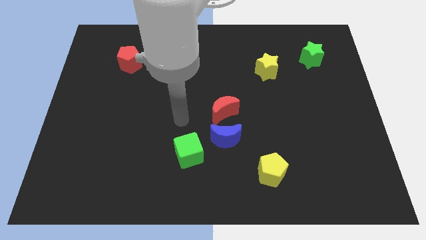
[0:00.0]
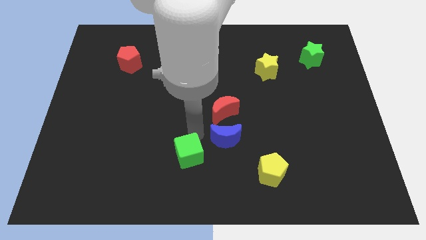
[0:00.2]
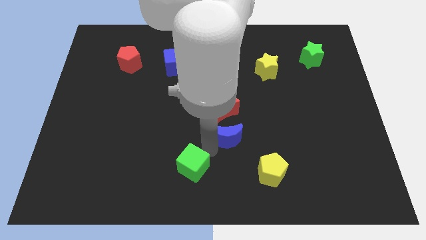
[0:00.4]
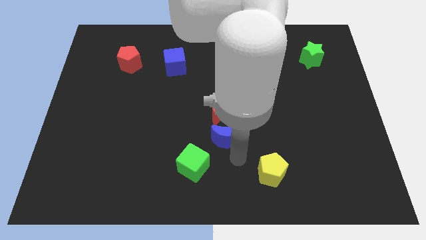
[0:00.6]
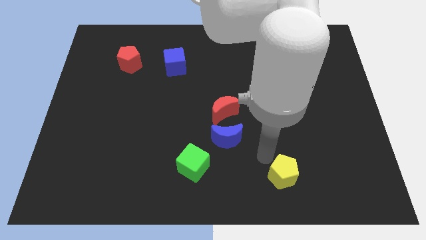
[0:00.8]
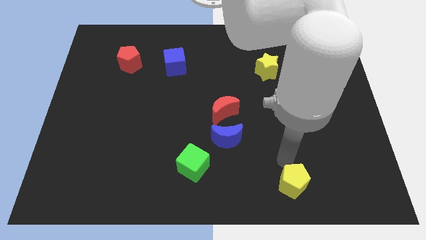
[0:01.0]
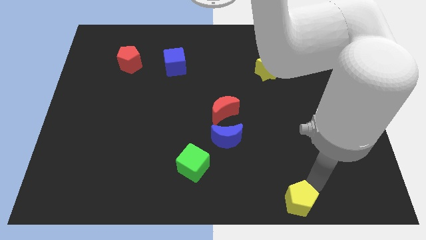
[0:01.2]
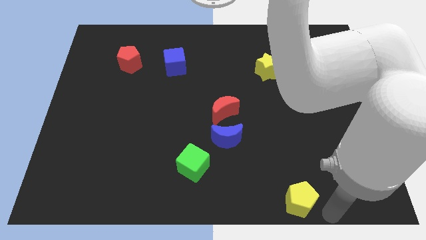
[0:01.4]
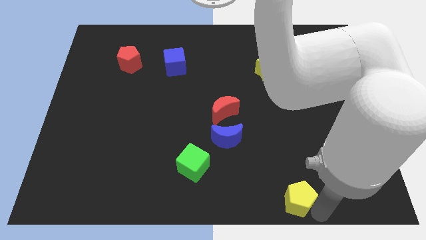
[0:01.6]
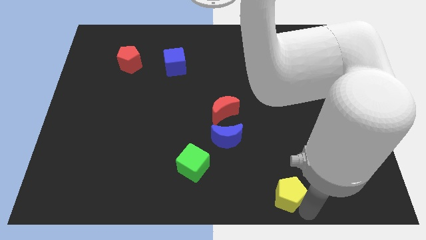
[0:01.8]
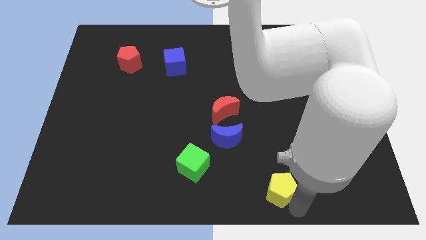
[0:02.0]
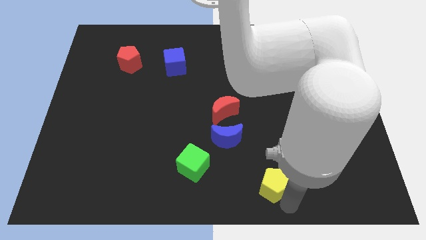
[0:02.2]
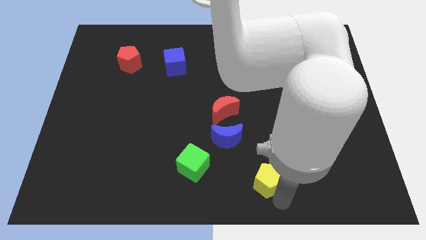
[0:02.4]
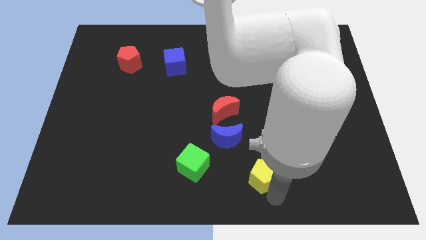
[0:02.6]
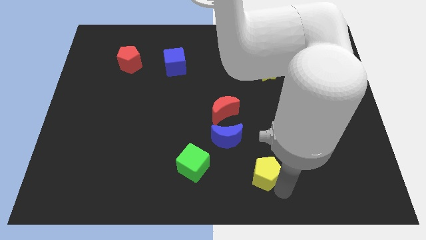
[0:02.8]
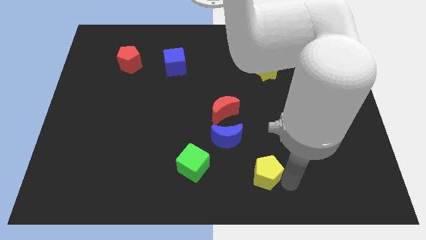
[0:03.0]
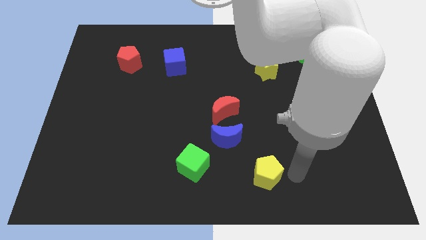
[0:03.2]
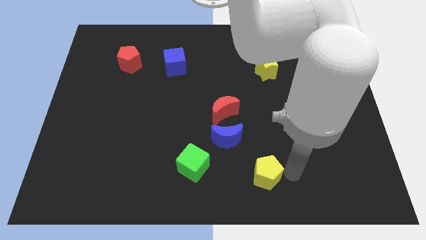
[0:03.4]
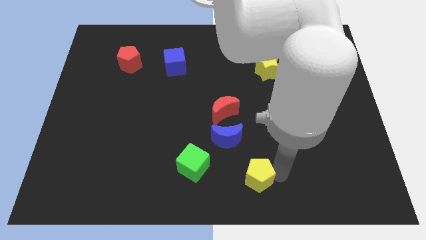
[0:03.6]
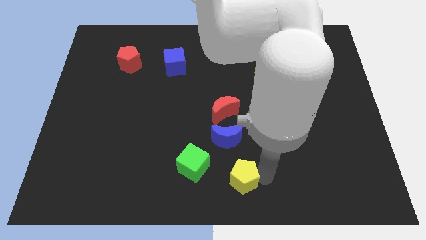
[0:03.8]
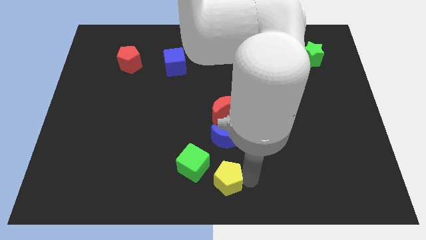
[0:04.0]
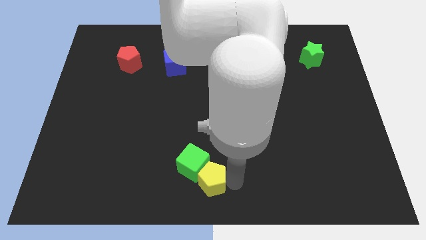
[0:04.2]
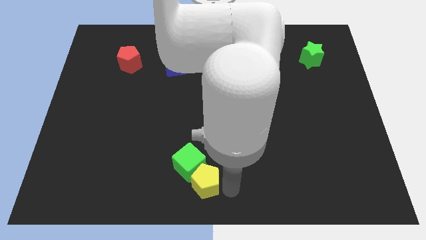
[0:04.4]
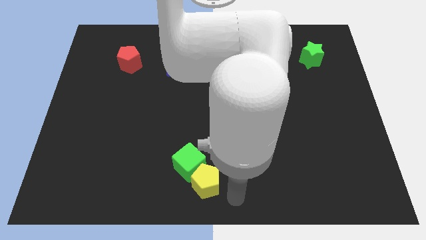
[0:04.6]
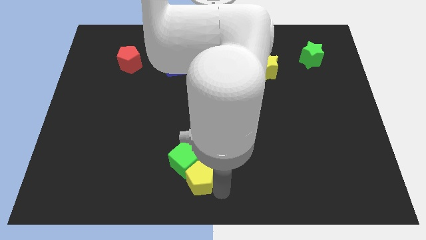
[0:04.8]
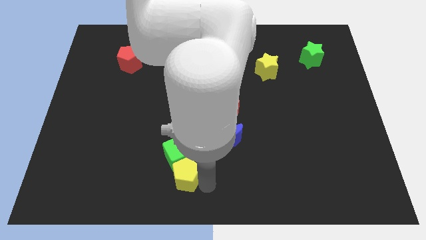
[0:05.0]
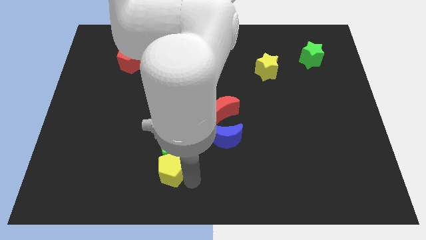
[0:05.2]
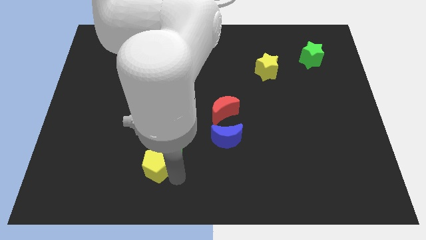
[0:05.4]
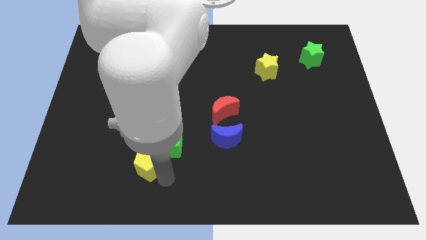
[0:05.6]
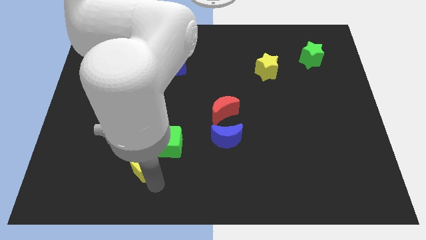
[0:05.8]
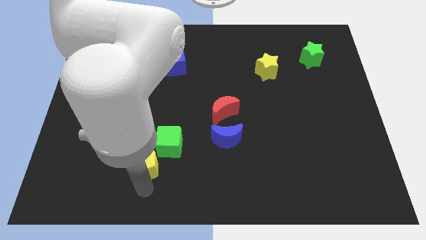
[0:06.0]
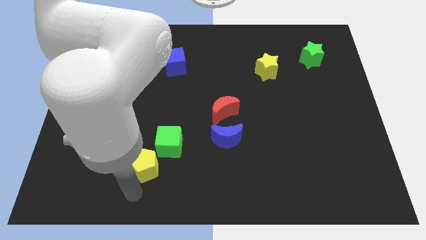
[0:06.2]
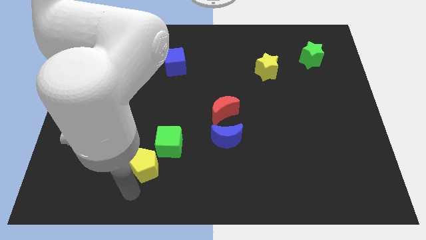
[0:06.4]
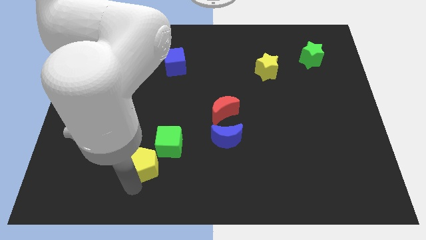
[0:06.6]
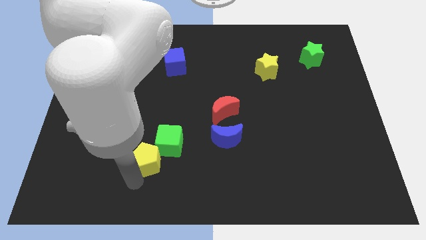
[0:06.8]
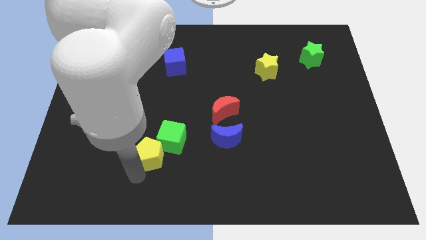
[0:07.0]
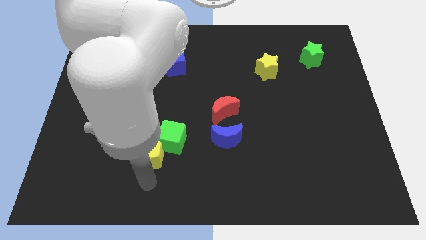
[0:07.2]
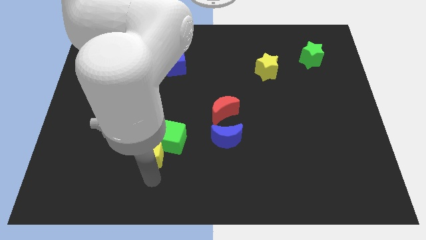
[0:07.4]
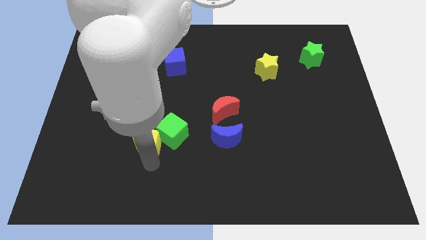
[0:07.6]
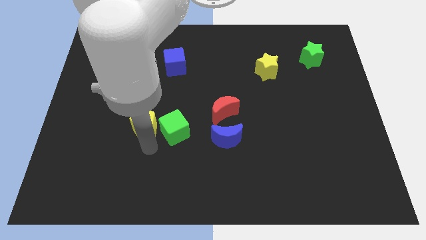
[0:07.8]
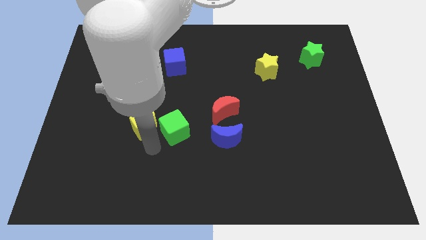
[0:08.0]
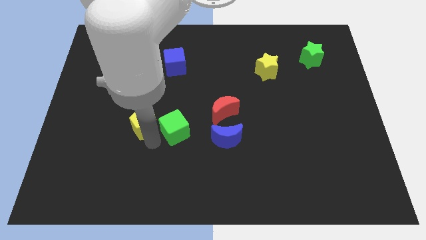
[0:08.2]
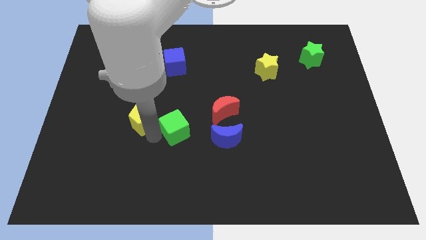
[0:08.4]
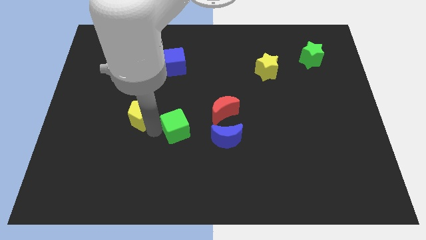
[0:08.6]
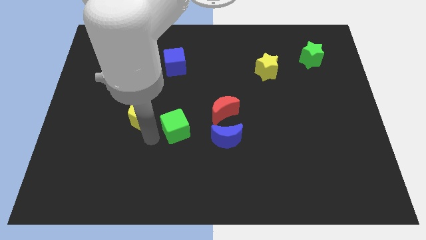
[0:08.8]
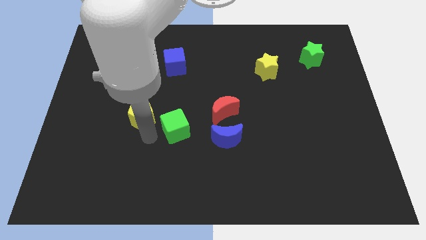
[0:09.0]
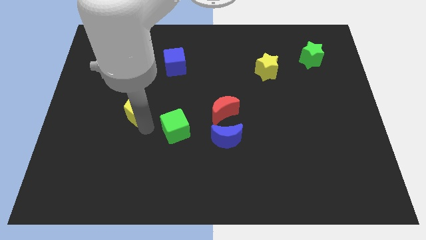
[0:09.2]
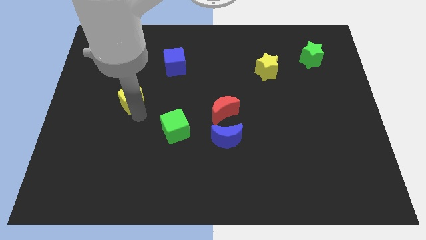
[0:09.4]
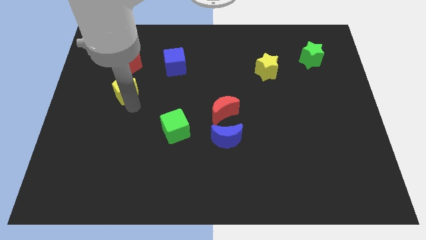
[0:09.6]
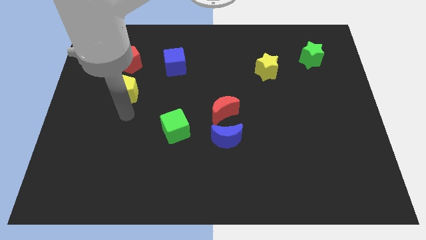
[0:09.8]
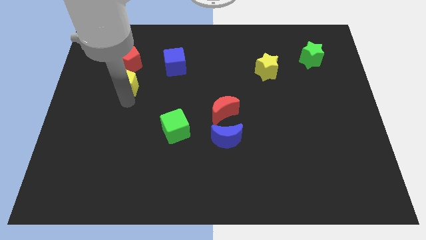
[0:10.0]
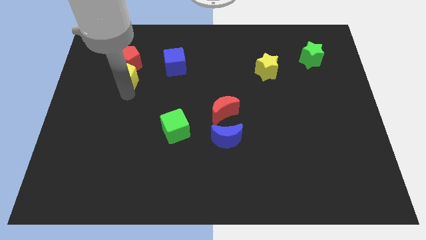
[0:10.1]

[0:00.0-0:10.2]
put the yellow pentagon towards the red pentagon

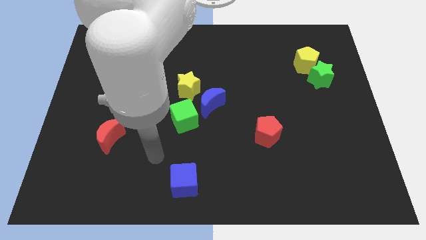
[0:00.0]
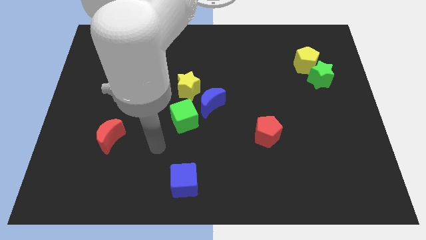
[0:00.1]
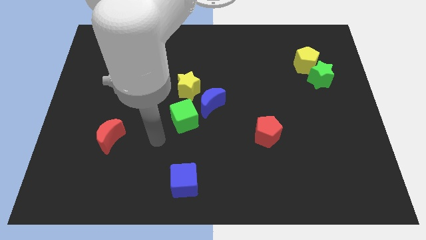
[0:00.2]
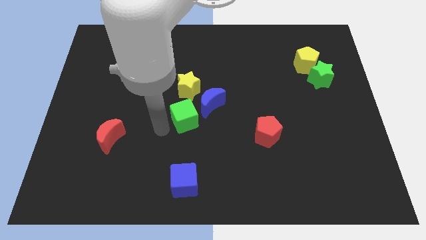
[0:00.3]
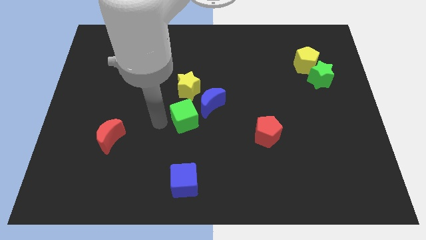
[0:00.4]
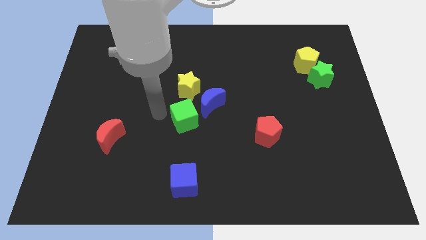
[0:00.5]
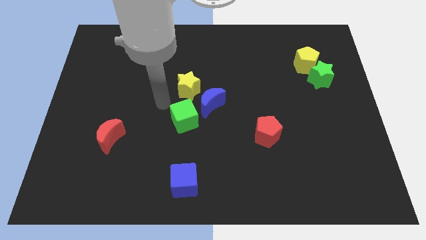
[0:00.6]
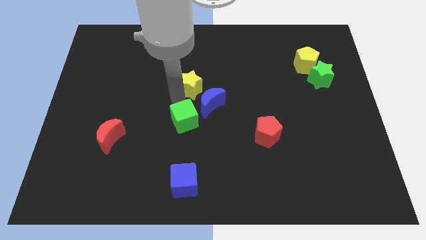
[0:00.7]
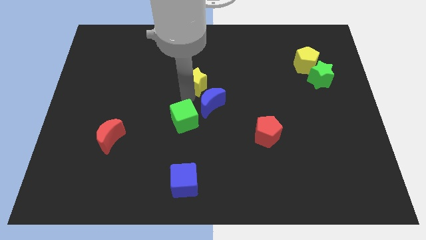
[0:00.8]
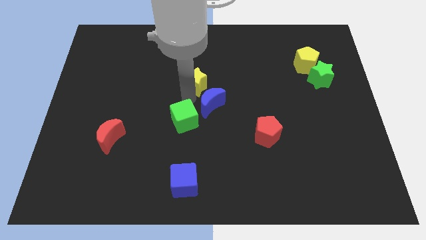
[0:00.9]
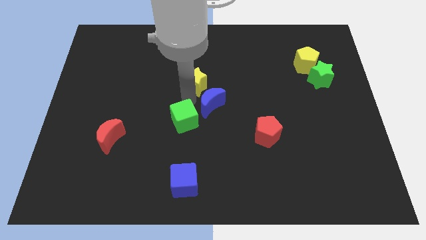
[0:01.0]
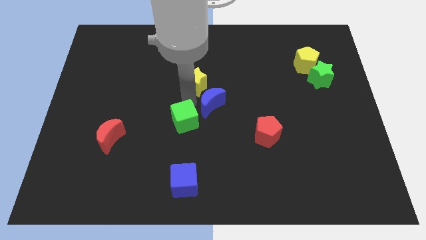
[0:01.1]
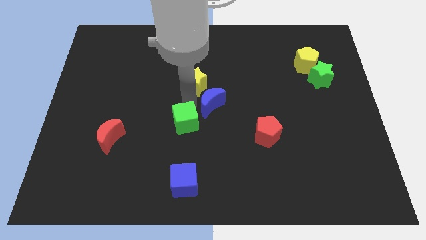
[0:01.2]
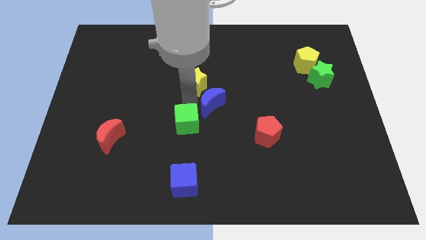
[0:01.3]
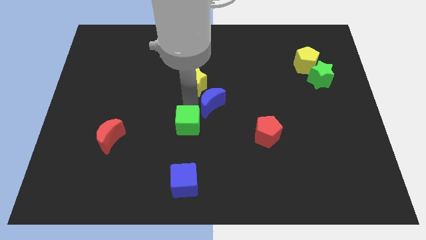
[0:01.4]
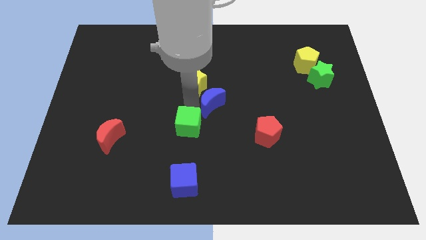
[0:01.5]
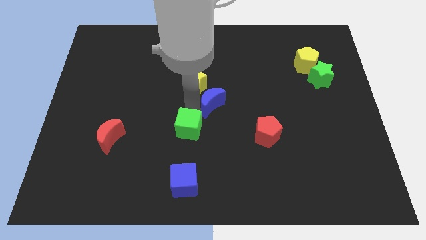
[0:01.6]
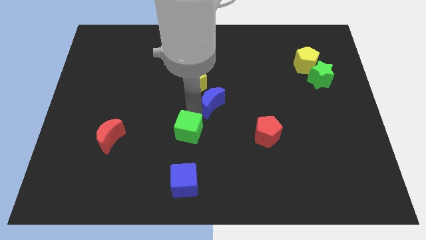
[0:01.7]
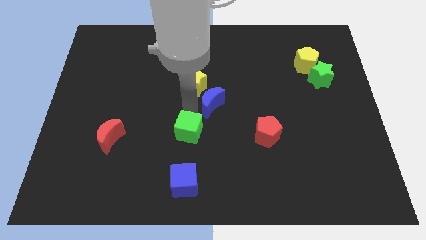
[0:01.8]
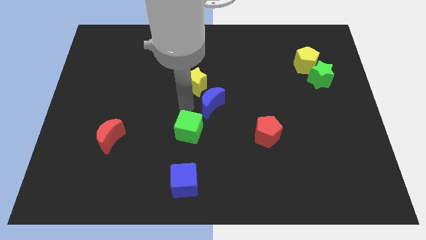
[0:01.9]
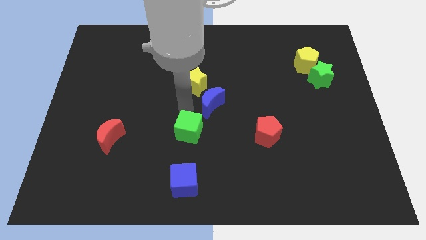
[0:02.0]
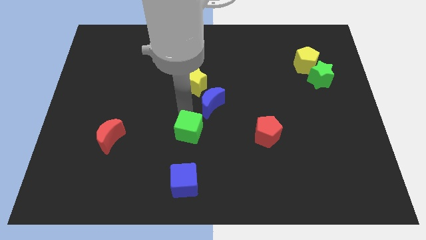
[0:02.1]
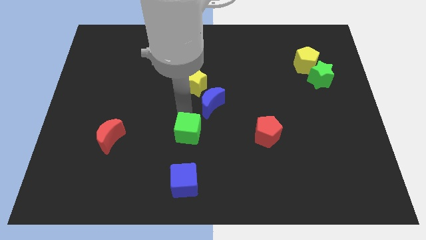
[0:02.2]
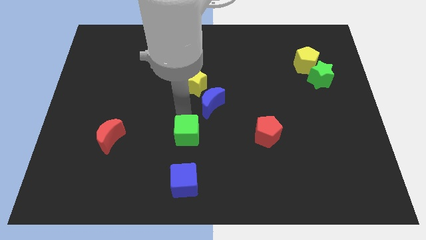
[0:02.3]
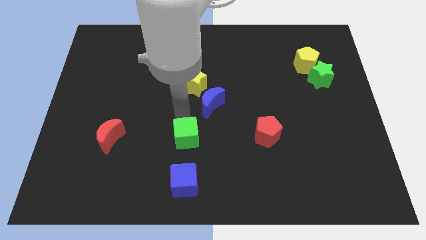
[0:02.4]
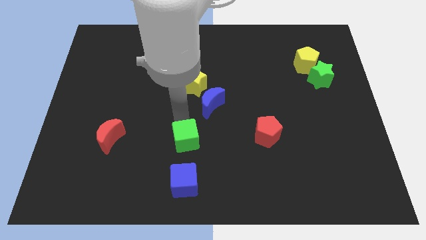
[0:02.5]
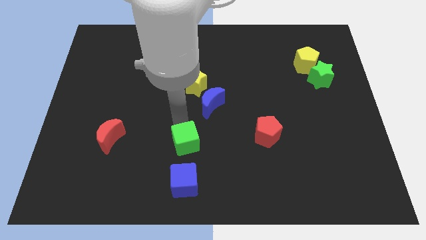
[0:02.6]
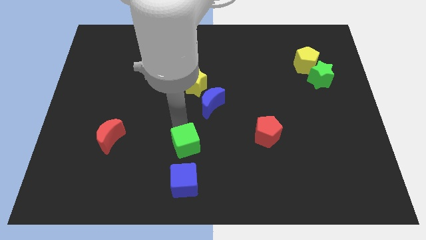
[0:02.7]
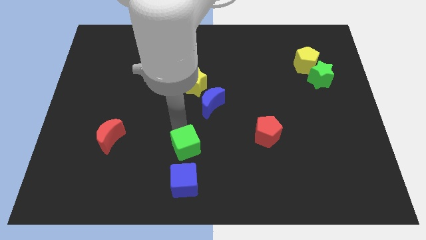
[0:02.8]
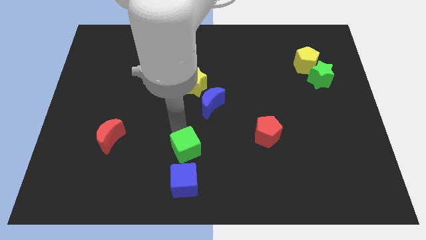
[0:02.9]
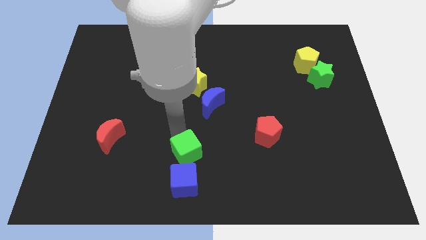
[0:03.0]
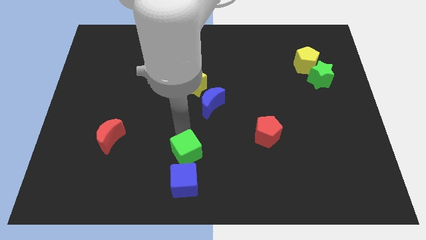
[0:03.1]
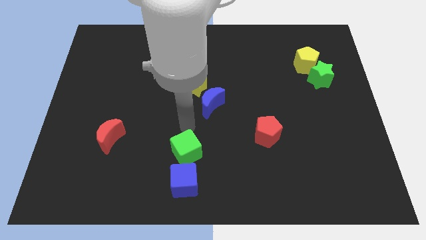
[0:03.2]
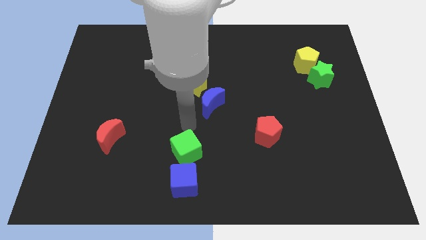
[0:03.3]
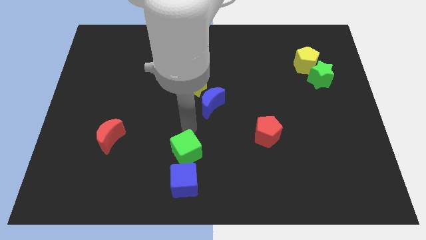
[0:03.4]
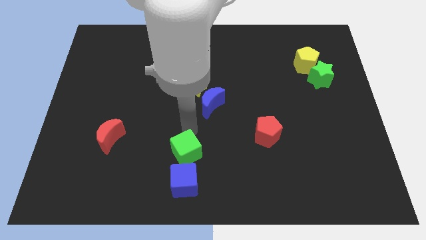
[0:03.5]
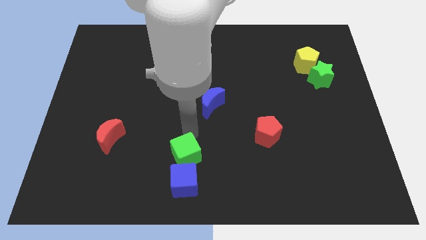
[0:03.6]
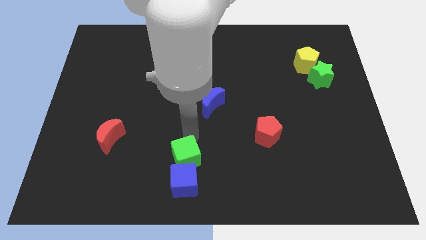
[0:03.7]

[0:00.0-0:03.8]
move the green cube to the blue cube
